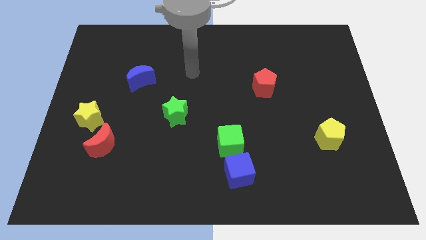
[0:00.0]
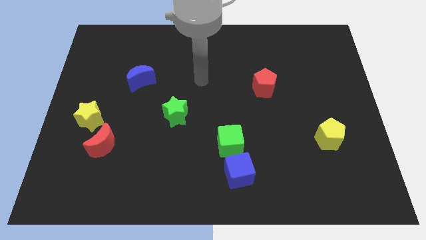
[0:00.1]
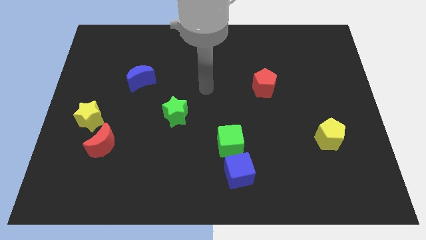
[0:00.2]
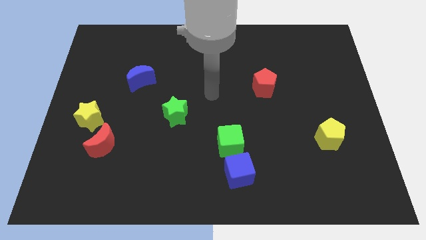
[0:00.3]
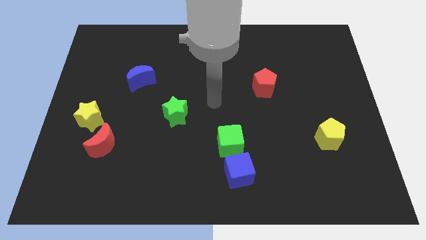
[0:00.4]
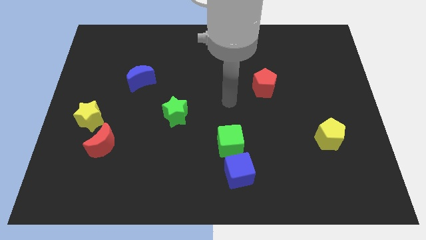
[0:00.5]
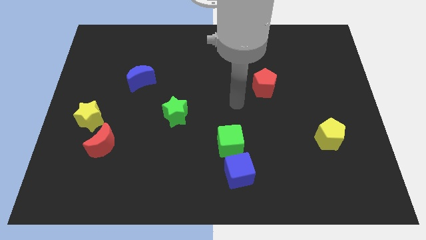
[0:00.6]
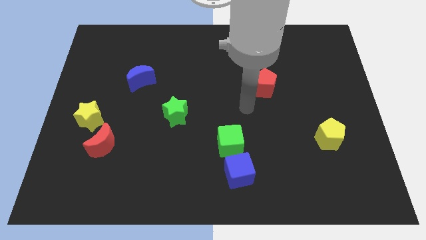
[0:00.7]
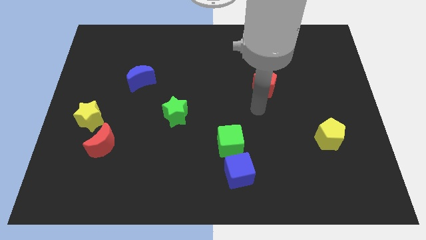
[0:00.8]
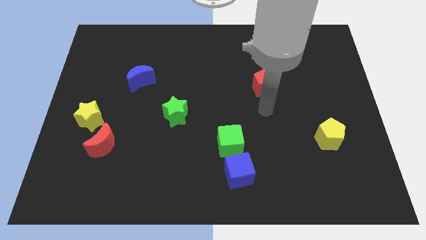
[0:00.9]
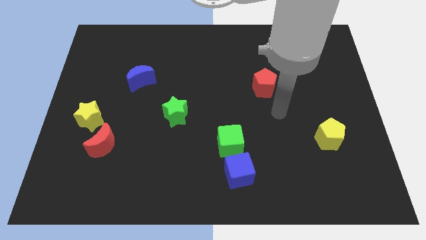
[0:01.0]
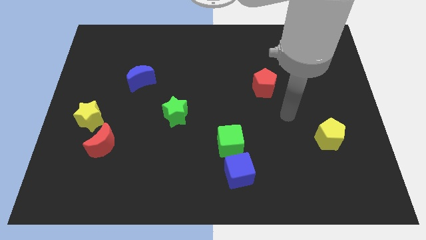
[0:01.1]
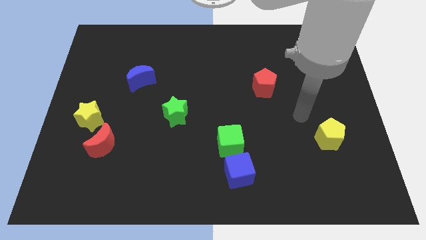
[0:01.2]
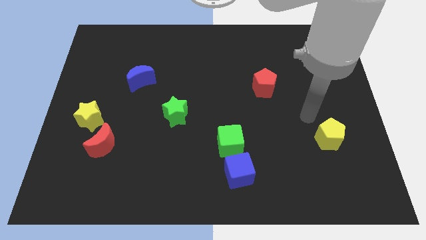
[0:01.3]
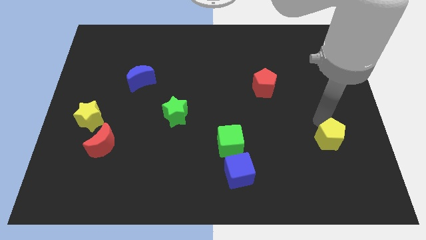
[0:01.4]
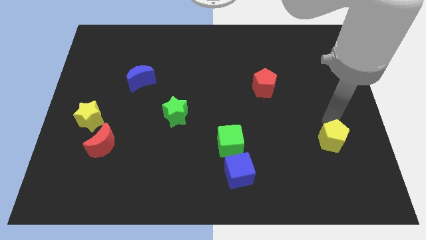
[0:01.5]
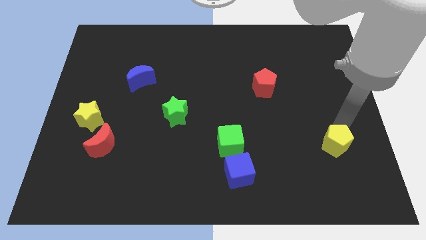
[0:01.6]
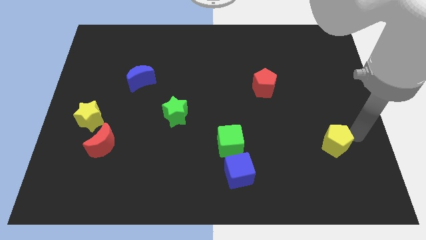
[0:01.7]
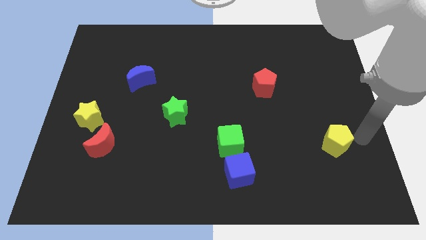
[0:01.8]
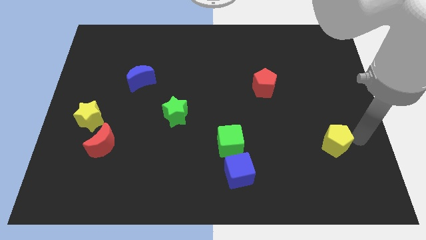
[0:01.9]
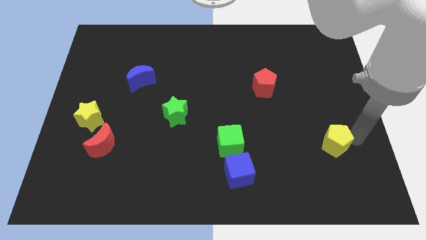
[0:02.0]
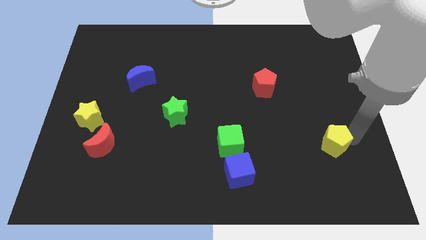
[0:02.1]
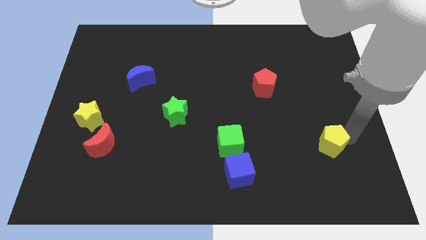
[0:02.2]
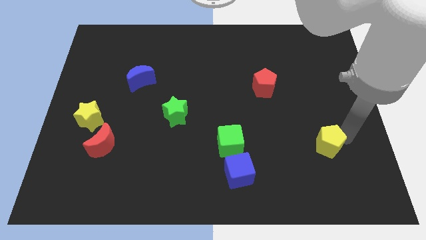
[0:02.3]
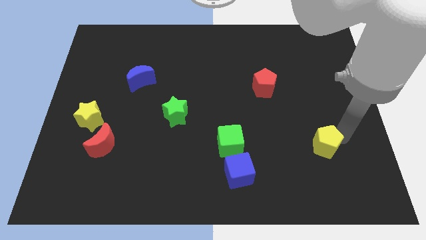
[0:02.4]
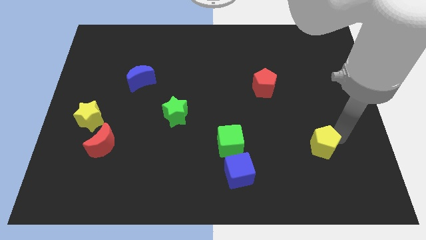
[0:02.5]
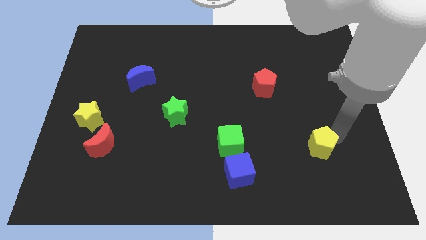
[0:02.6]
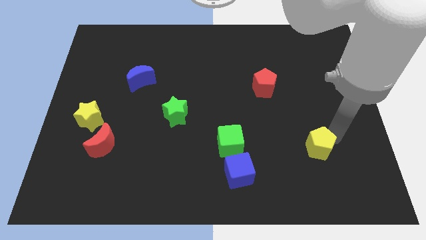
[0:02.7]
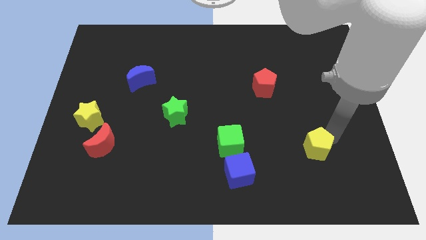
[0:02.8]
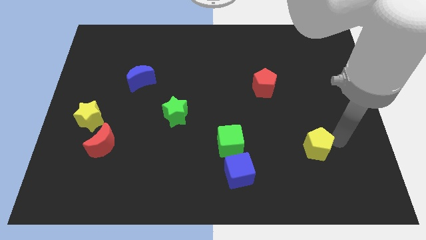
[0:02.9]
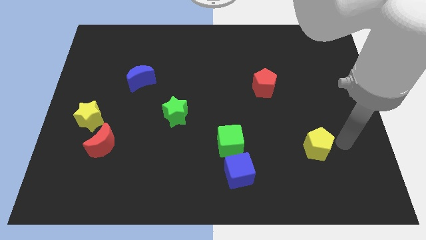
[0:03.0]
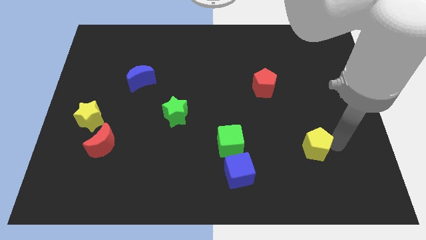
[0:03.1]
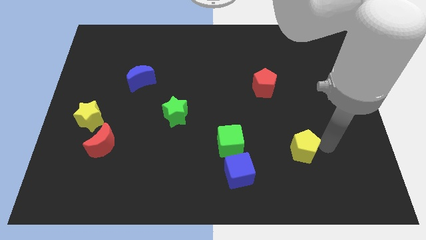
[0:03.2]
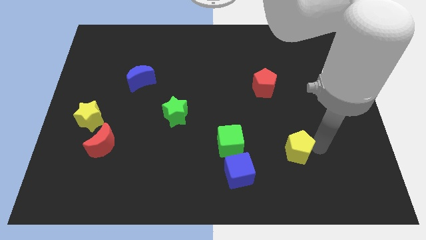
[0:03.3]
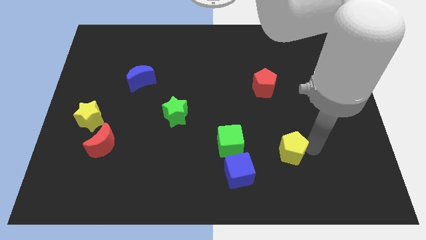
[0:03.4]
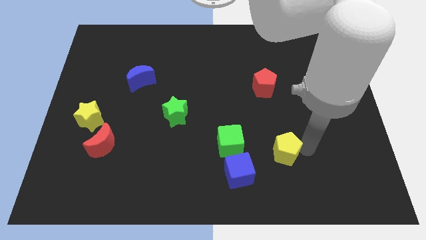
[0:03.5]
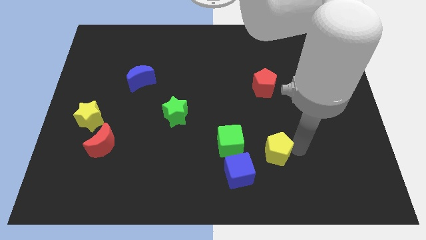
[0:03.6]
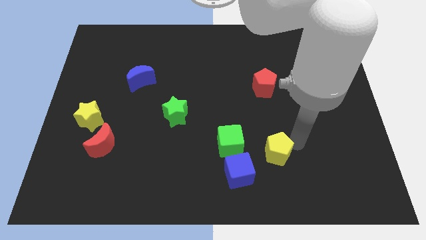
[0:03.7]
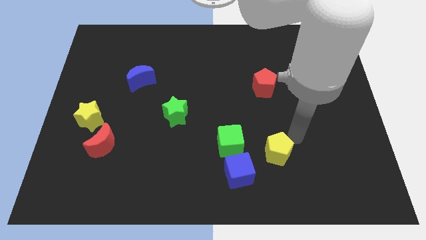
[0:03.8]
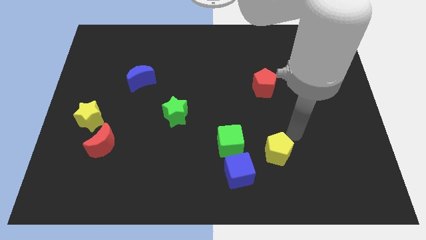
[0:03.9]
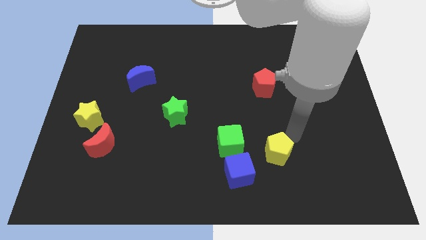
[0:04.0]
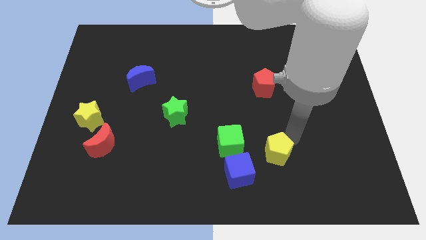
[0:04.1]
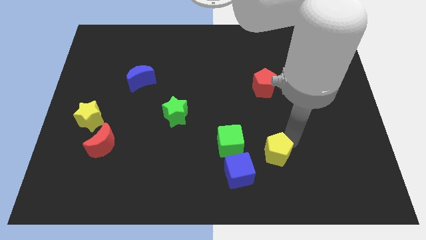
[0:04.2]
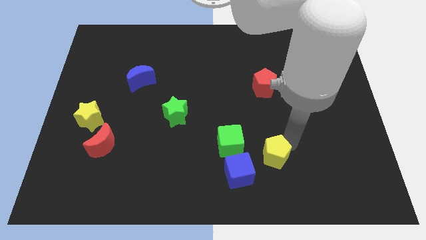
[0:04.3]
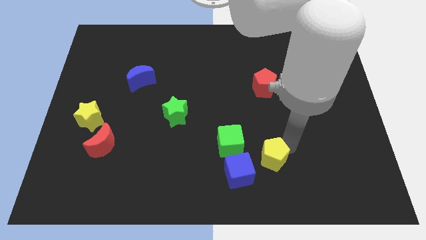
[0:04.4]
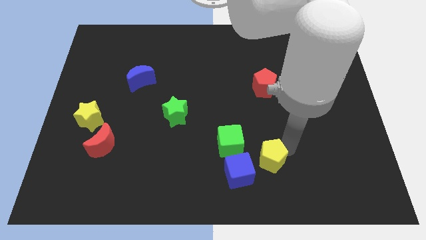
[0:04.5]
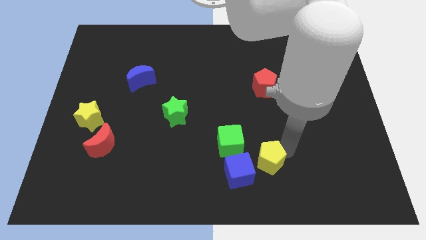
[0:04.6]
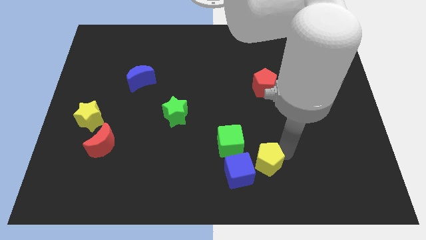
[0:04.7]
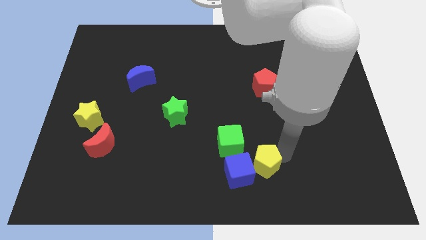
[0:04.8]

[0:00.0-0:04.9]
put the yellow pentagon to the blue cube

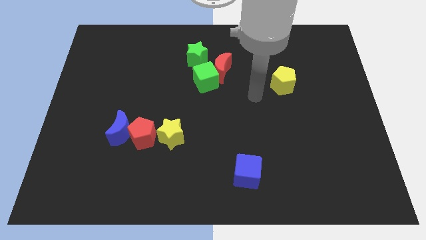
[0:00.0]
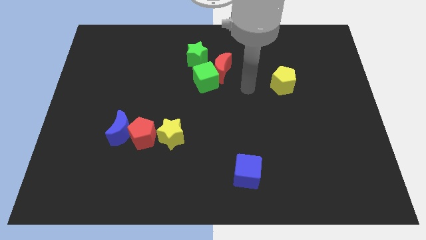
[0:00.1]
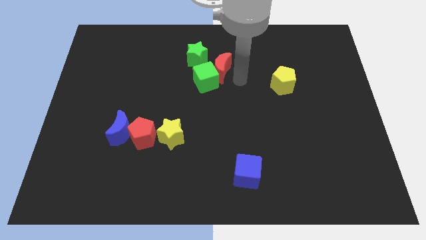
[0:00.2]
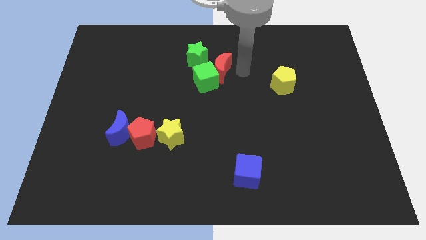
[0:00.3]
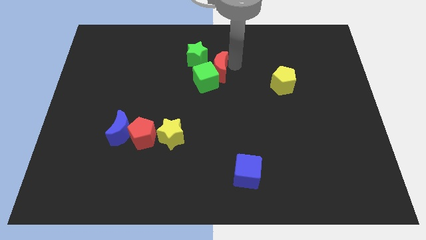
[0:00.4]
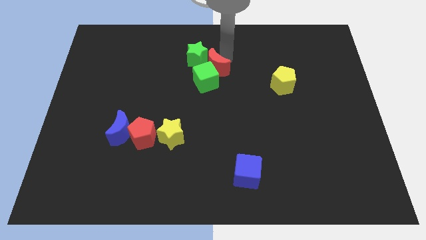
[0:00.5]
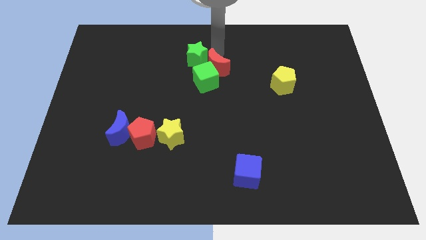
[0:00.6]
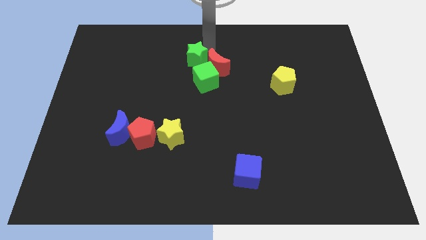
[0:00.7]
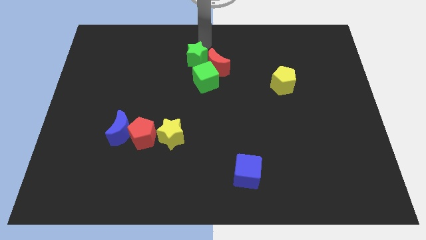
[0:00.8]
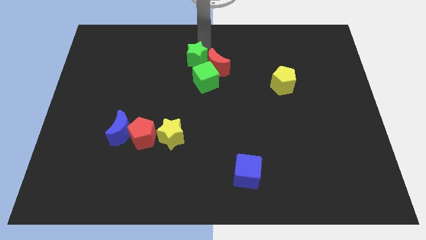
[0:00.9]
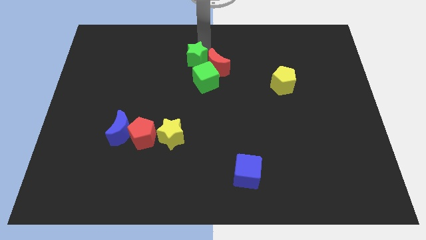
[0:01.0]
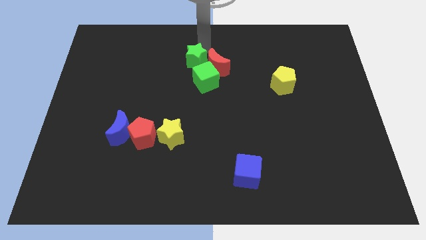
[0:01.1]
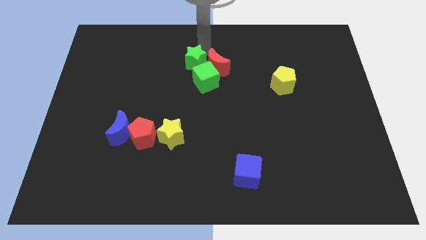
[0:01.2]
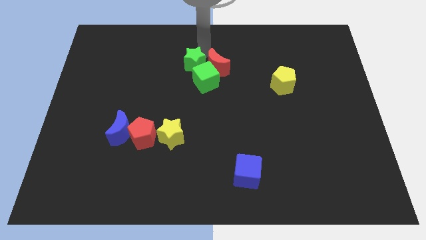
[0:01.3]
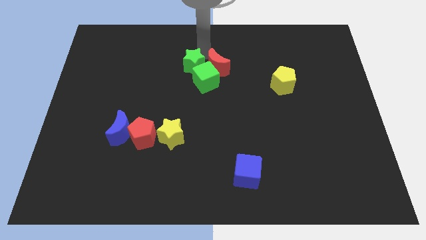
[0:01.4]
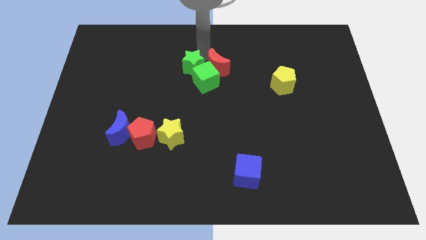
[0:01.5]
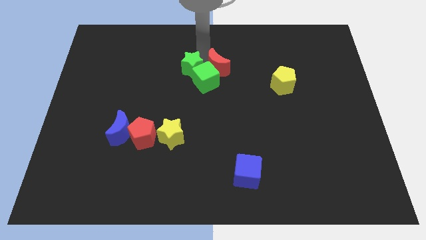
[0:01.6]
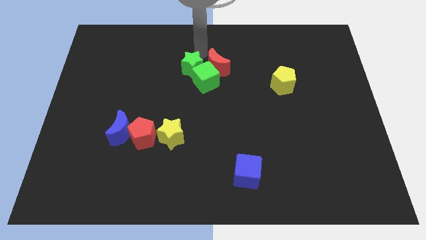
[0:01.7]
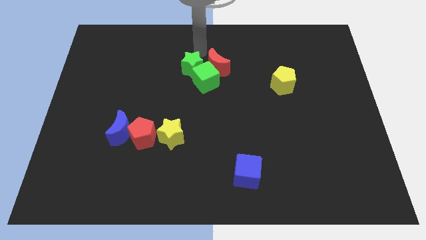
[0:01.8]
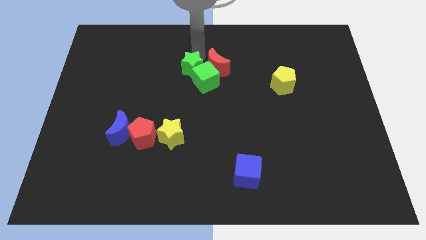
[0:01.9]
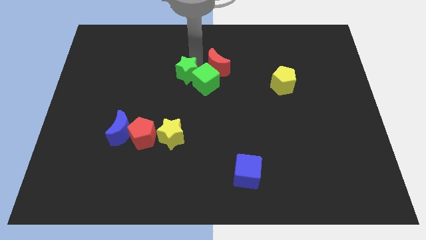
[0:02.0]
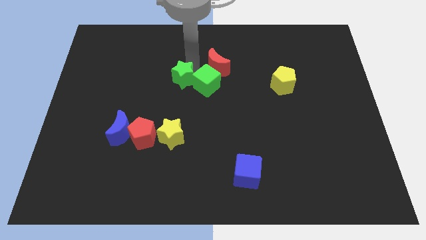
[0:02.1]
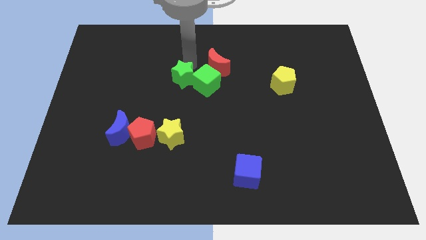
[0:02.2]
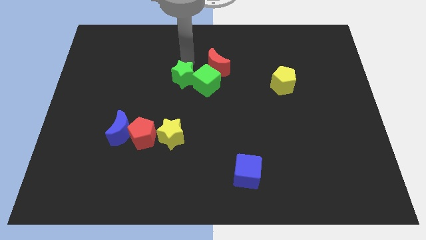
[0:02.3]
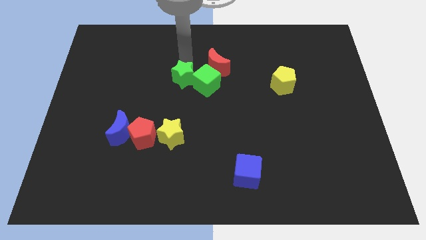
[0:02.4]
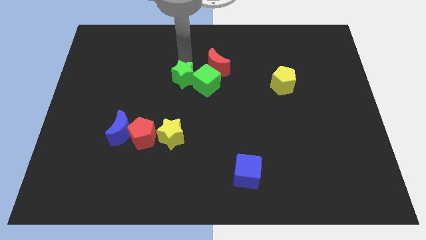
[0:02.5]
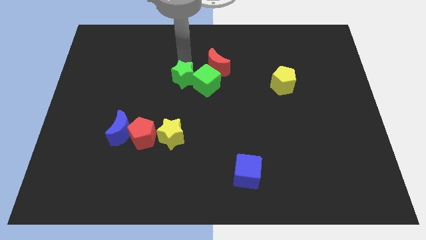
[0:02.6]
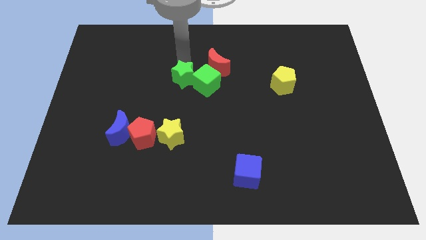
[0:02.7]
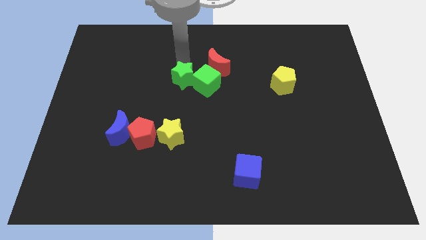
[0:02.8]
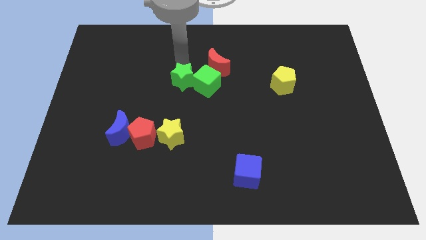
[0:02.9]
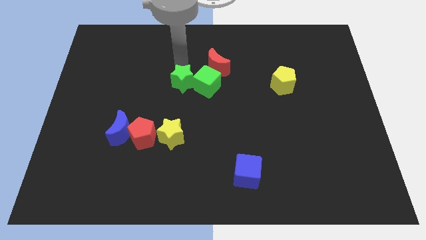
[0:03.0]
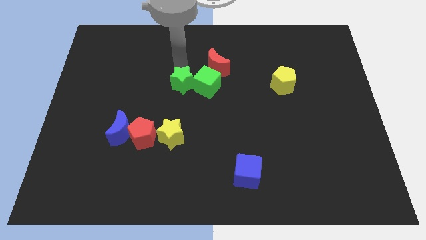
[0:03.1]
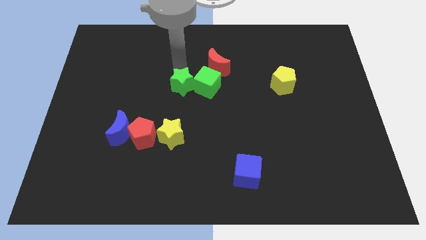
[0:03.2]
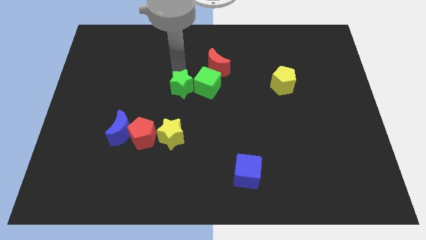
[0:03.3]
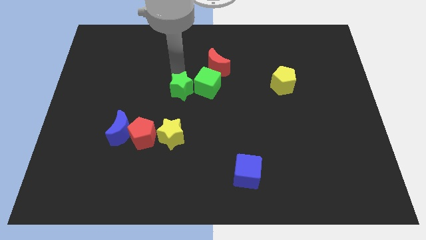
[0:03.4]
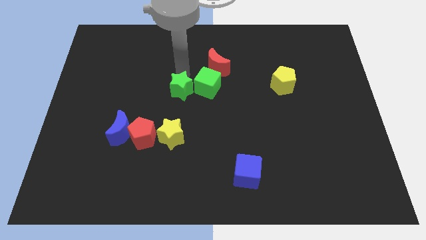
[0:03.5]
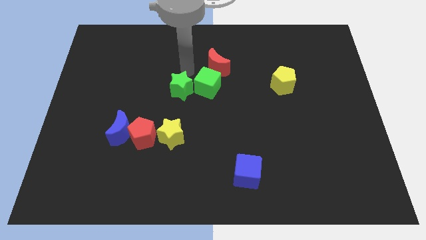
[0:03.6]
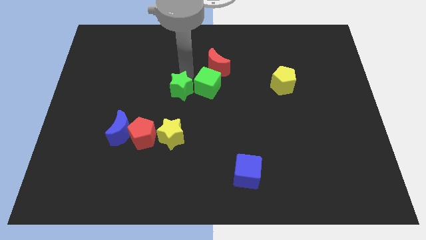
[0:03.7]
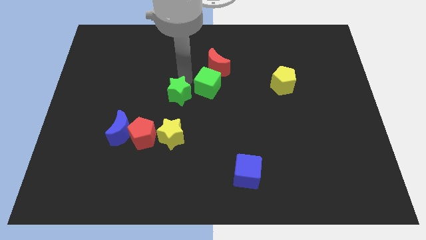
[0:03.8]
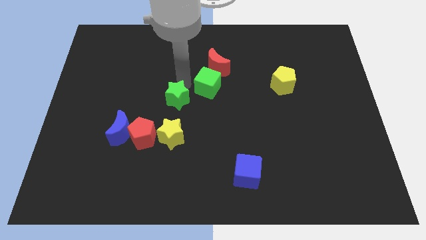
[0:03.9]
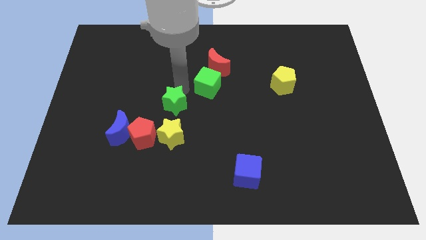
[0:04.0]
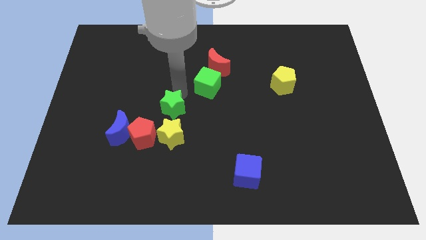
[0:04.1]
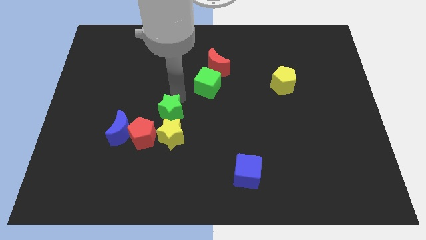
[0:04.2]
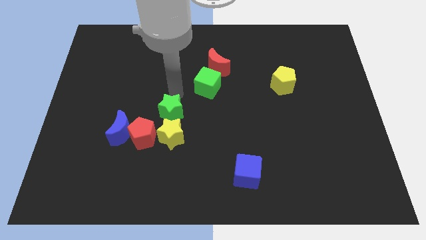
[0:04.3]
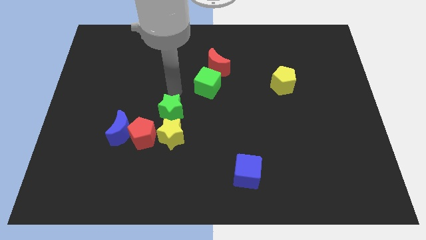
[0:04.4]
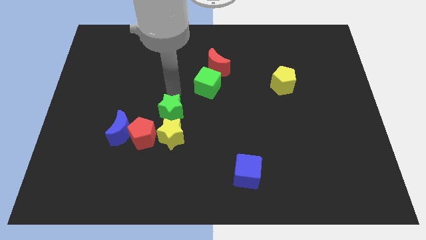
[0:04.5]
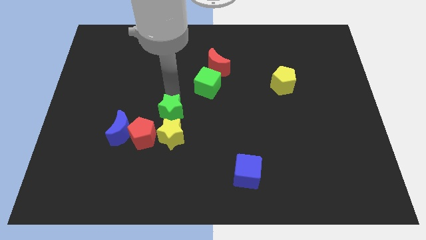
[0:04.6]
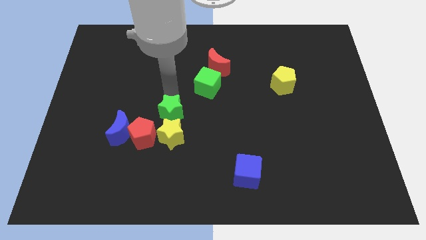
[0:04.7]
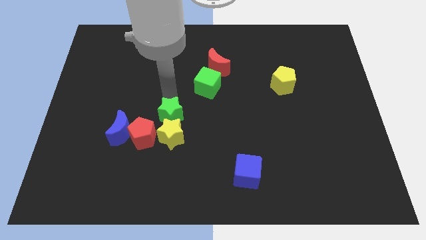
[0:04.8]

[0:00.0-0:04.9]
move the green star towards the yellow star
